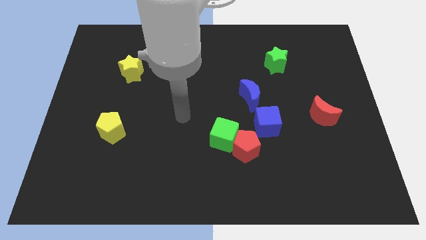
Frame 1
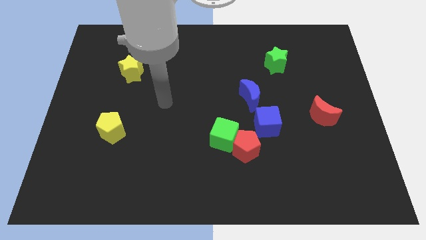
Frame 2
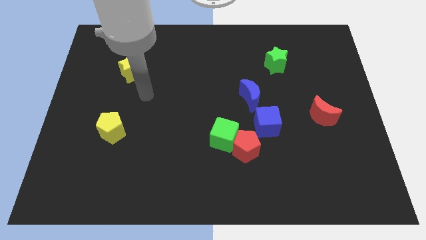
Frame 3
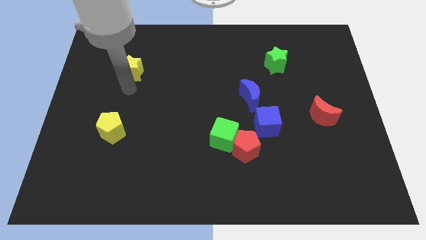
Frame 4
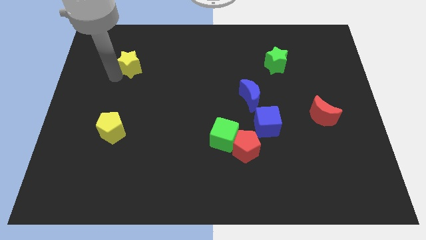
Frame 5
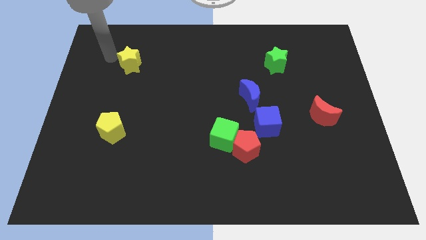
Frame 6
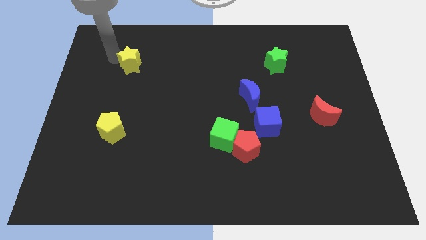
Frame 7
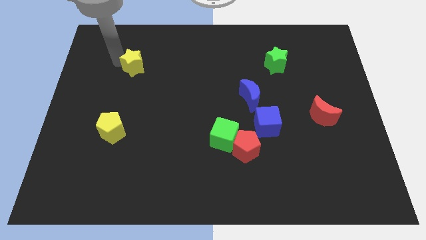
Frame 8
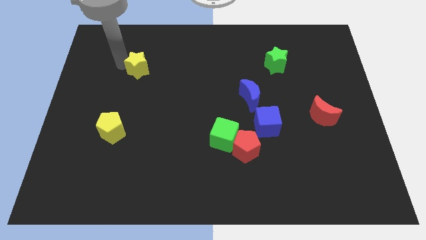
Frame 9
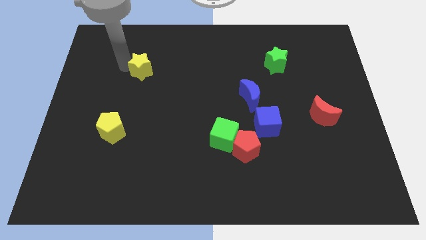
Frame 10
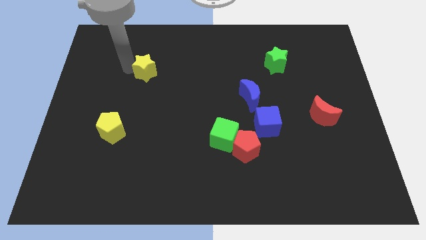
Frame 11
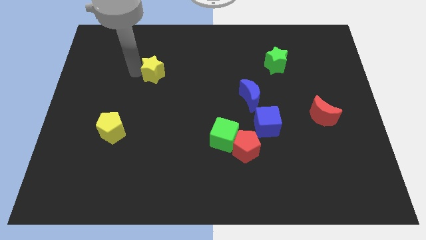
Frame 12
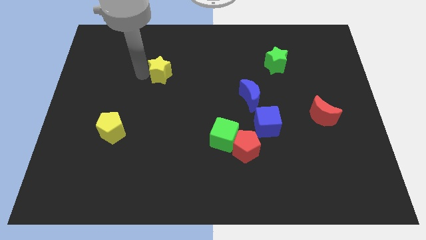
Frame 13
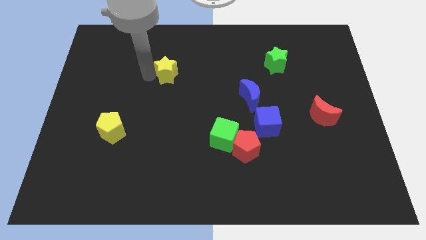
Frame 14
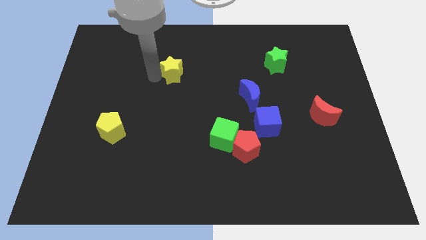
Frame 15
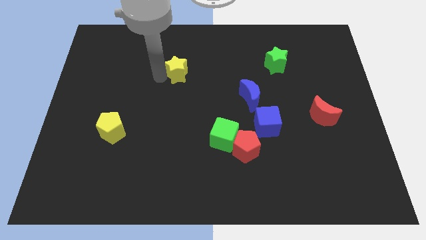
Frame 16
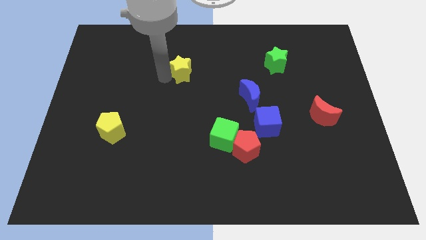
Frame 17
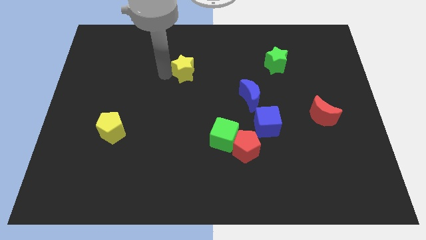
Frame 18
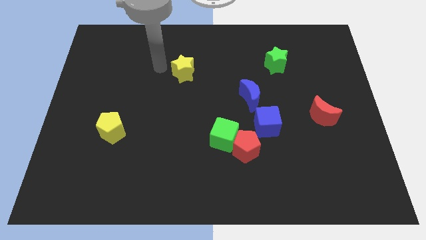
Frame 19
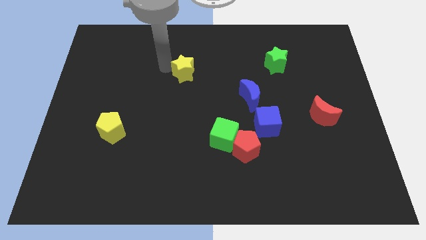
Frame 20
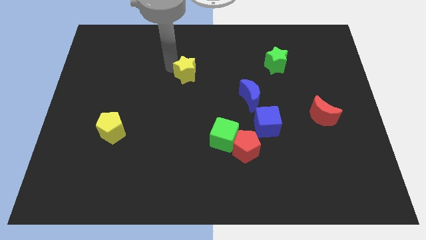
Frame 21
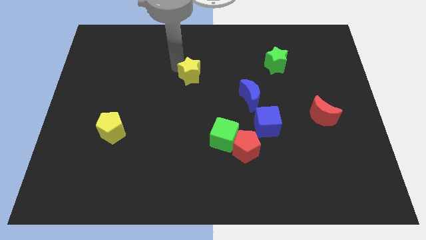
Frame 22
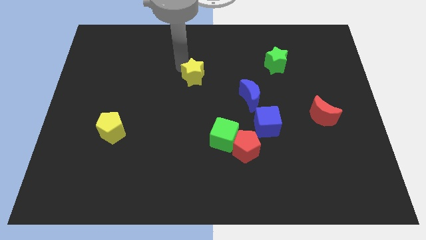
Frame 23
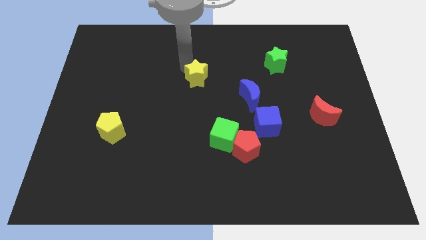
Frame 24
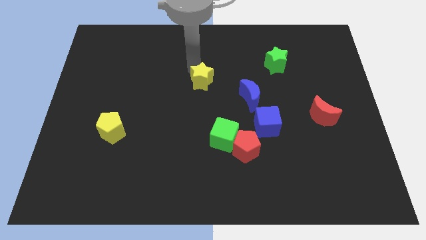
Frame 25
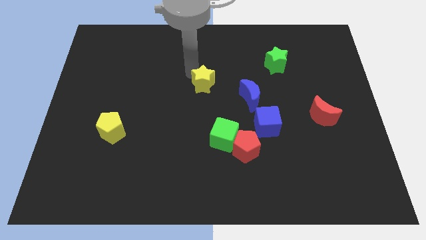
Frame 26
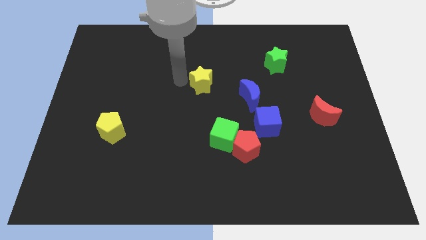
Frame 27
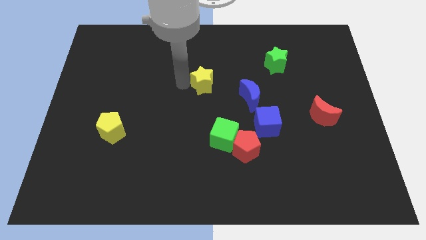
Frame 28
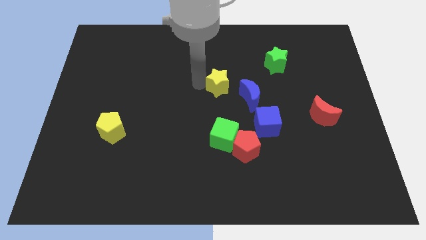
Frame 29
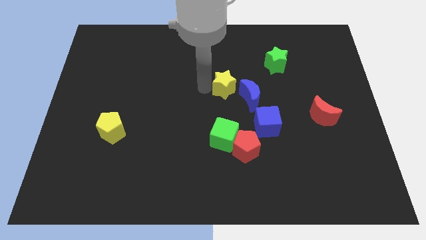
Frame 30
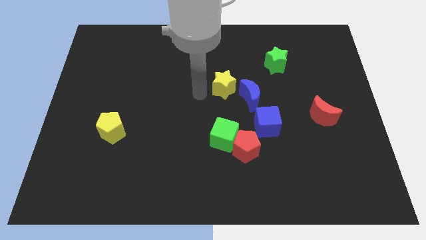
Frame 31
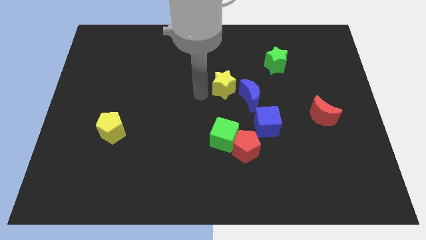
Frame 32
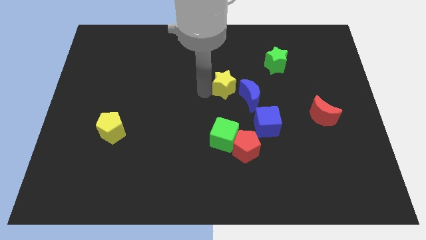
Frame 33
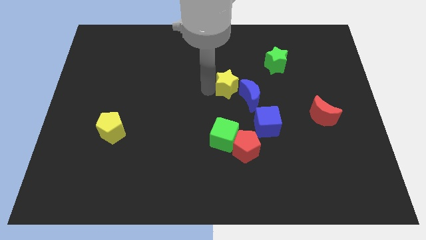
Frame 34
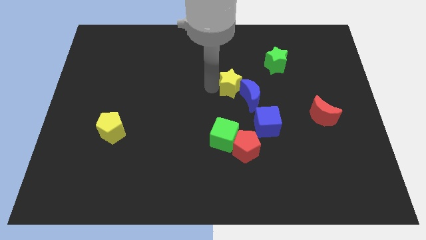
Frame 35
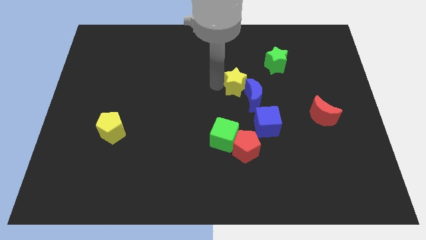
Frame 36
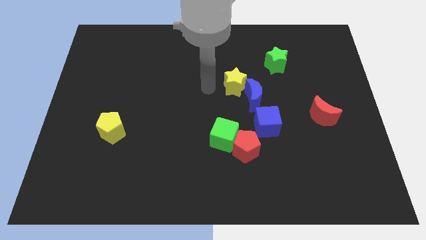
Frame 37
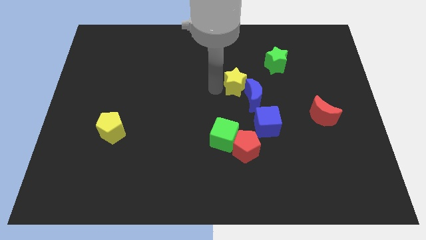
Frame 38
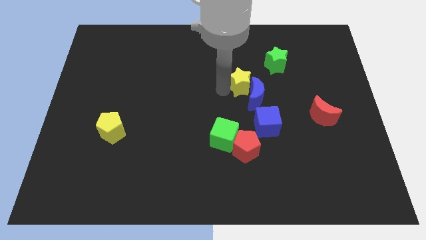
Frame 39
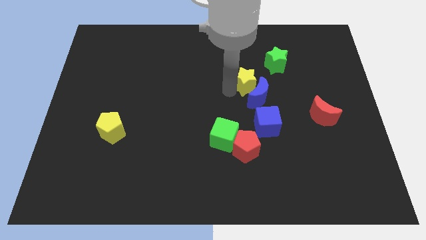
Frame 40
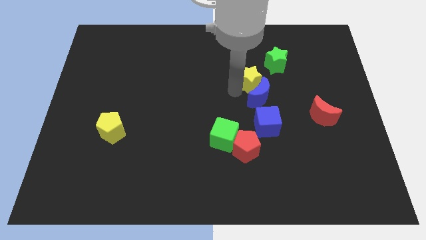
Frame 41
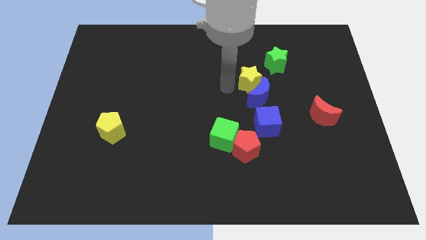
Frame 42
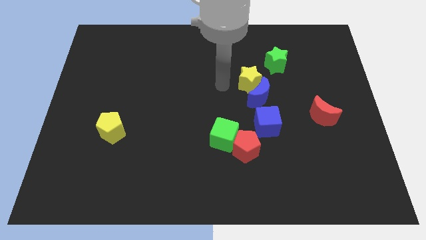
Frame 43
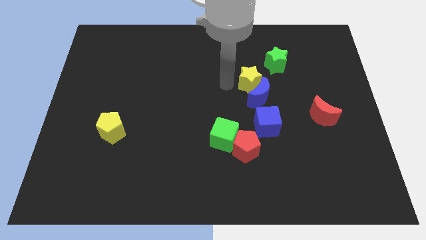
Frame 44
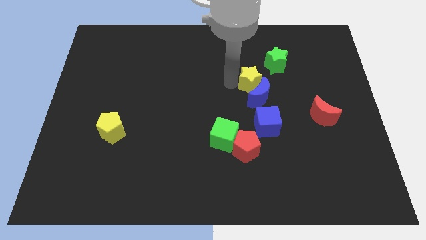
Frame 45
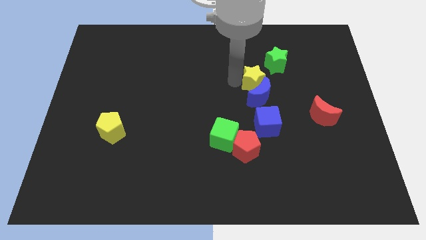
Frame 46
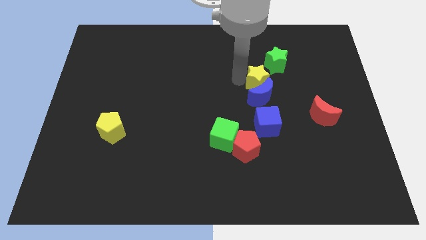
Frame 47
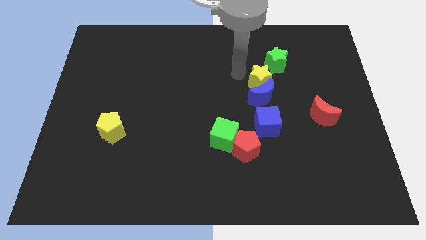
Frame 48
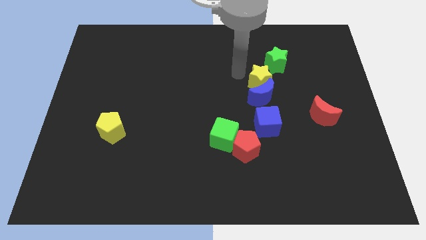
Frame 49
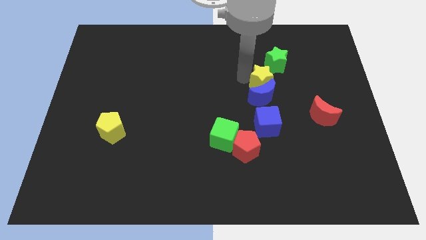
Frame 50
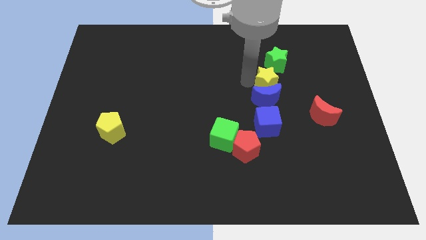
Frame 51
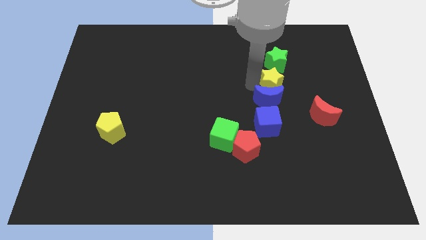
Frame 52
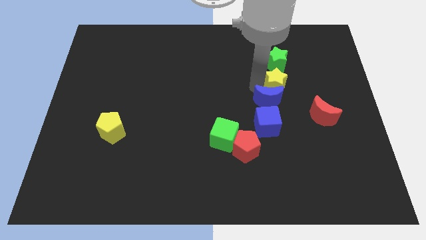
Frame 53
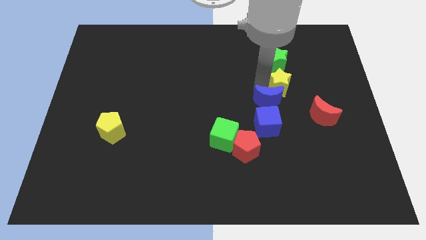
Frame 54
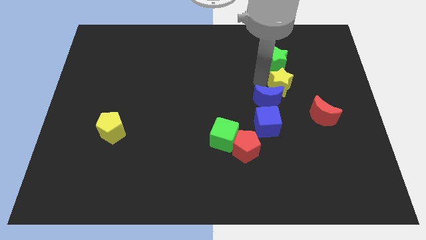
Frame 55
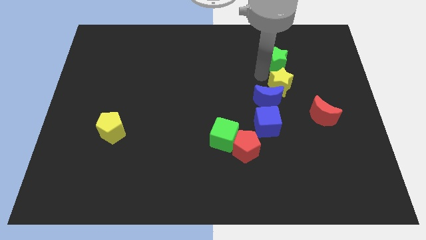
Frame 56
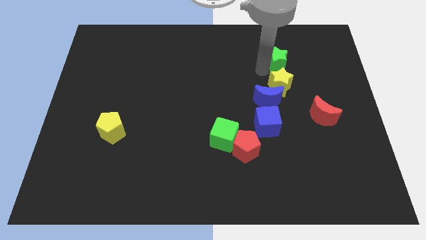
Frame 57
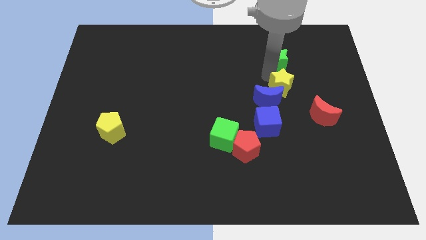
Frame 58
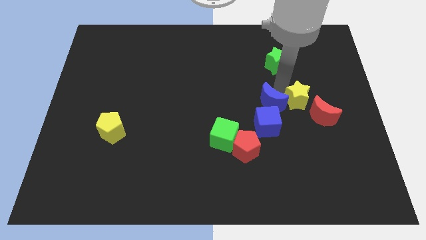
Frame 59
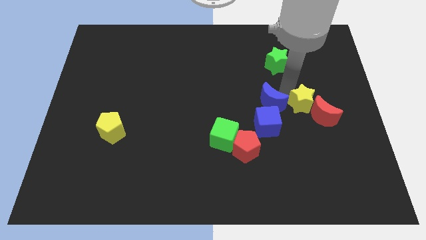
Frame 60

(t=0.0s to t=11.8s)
push the yellow star close to the red moon

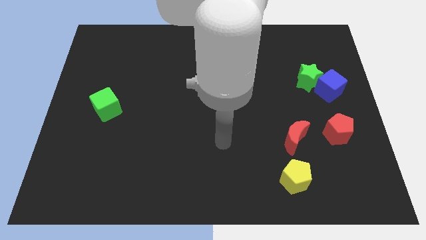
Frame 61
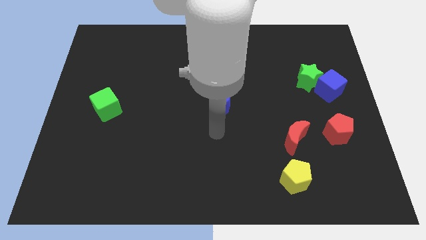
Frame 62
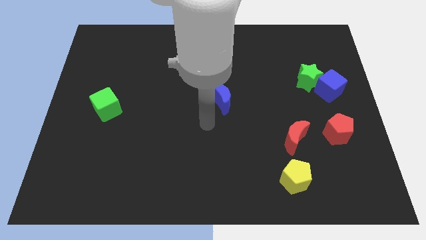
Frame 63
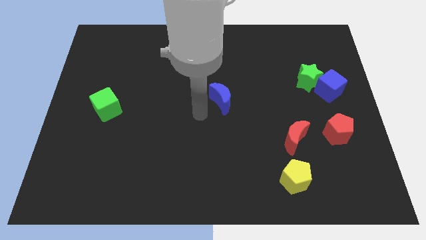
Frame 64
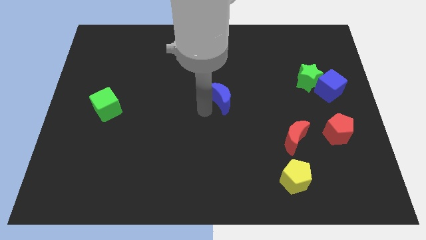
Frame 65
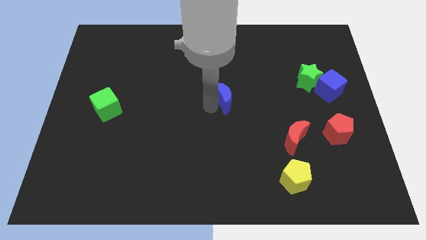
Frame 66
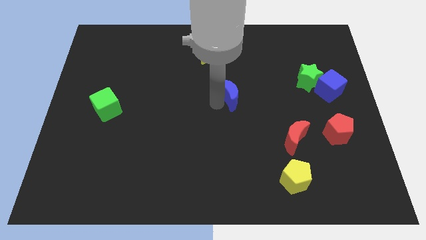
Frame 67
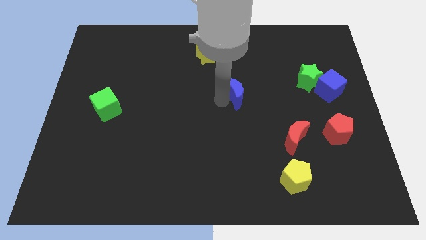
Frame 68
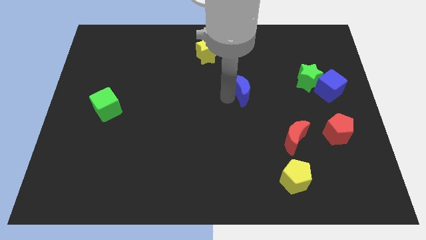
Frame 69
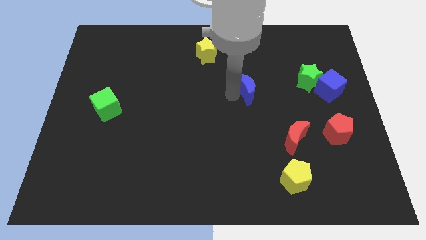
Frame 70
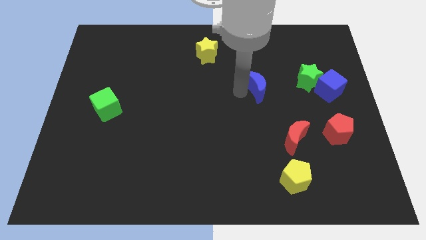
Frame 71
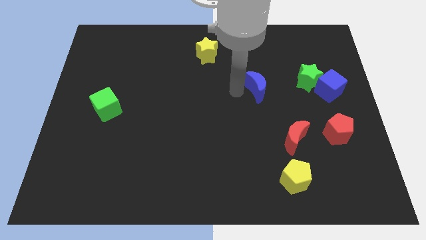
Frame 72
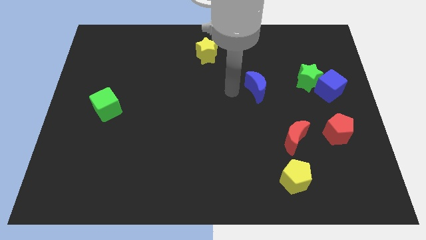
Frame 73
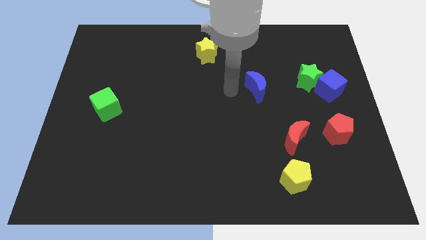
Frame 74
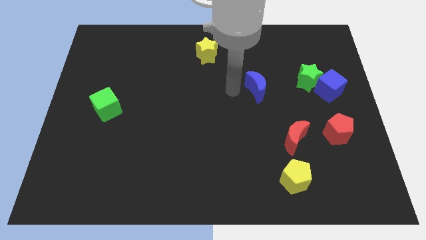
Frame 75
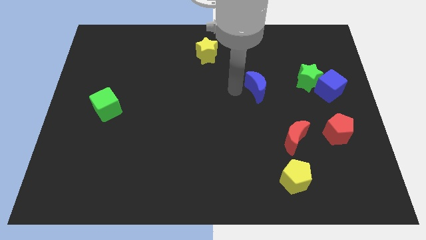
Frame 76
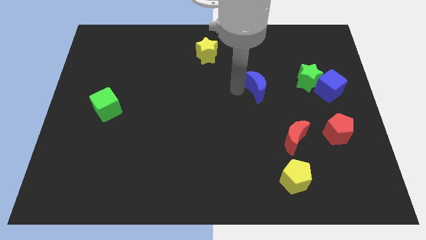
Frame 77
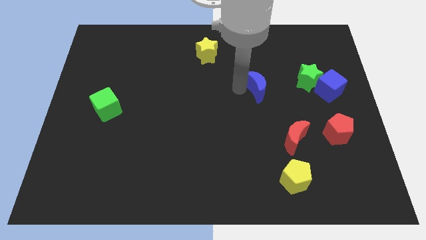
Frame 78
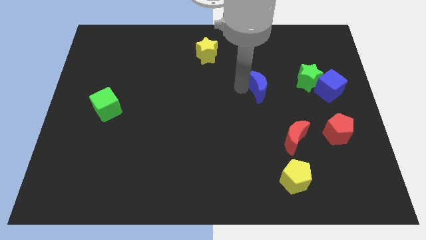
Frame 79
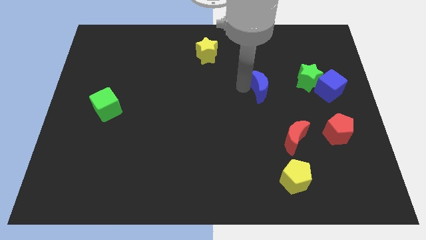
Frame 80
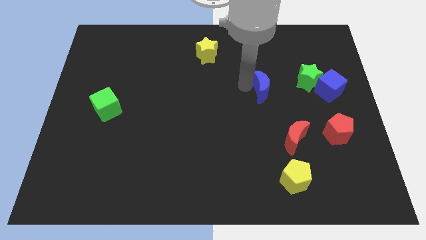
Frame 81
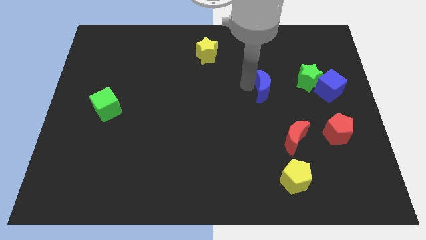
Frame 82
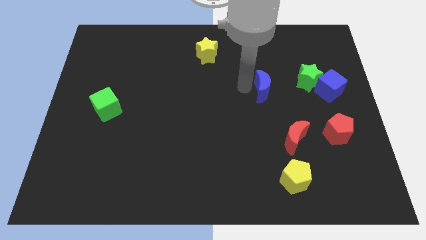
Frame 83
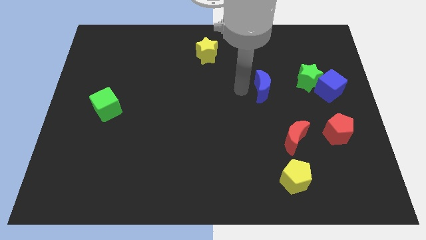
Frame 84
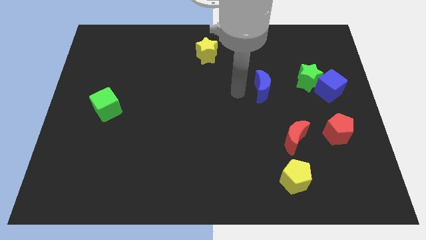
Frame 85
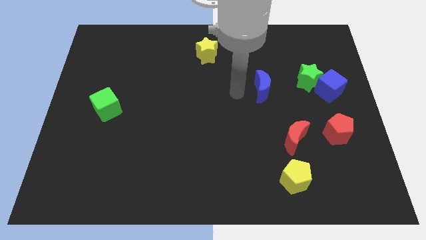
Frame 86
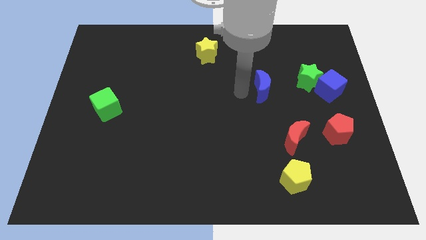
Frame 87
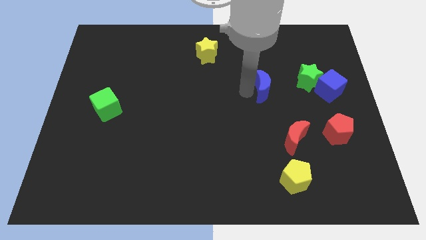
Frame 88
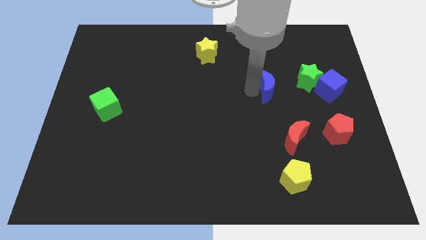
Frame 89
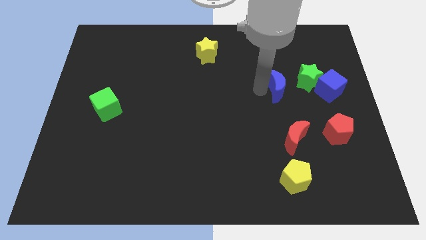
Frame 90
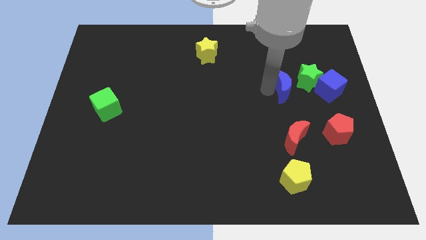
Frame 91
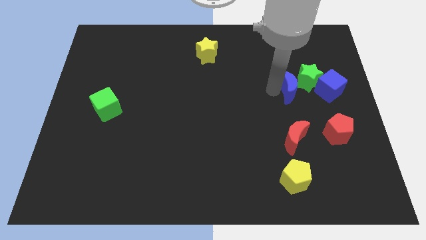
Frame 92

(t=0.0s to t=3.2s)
move the blue moon towards the green star
